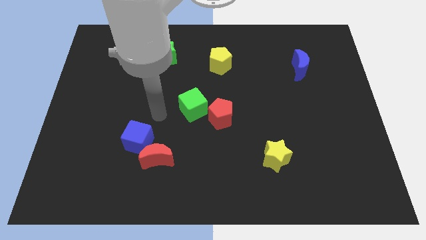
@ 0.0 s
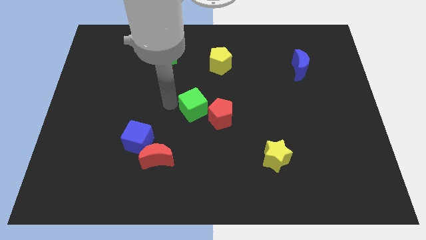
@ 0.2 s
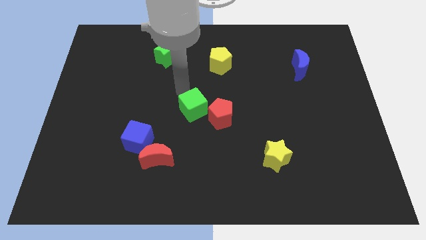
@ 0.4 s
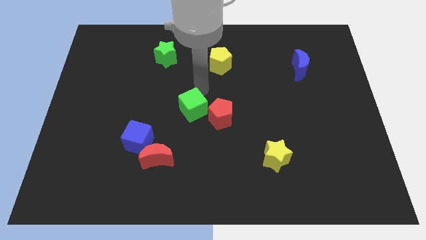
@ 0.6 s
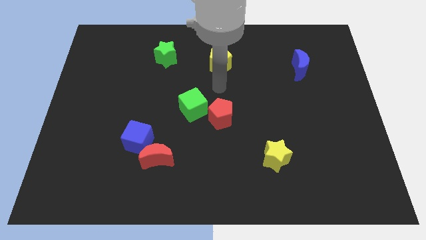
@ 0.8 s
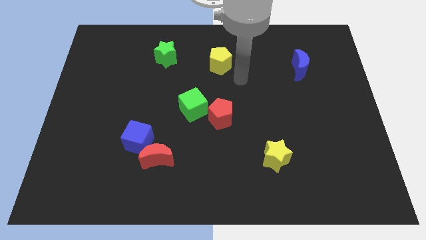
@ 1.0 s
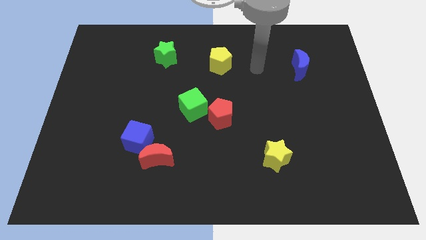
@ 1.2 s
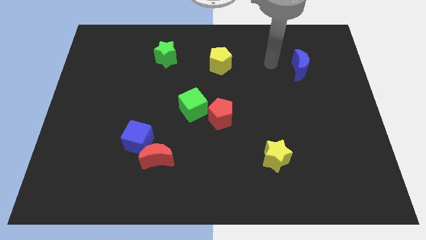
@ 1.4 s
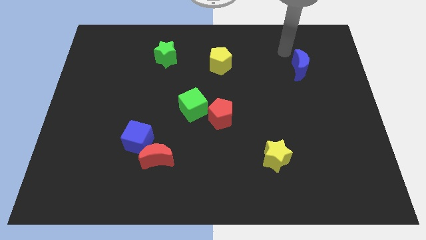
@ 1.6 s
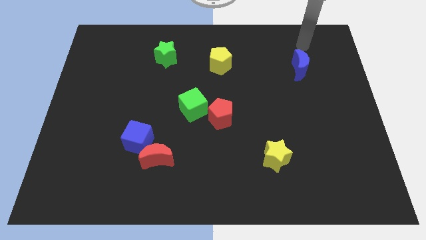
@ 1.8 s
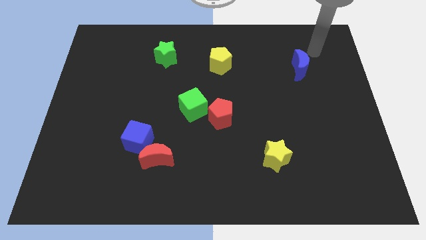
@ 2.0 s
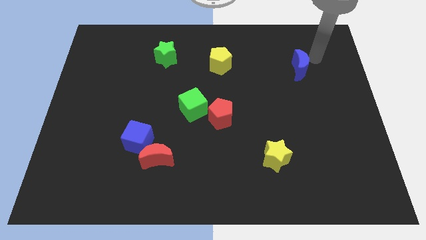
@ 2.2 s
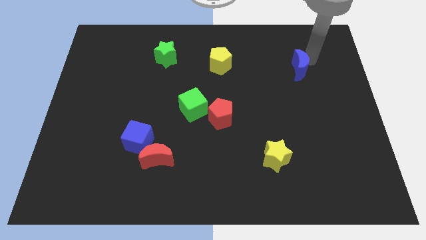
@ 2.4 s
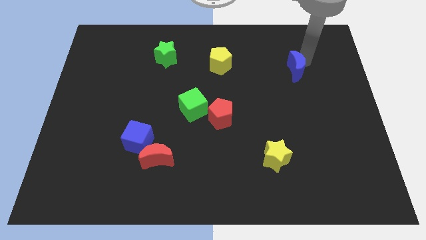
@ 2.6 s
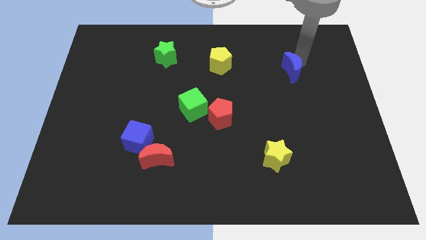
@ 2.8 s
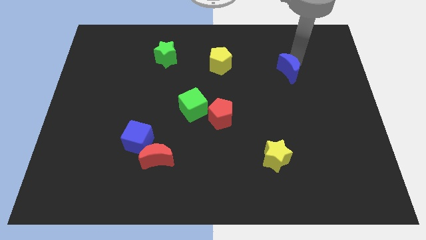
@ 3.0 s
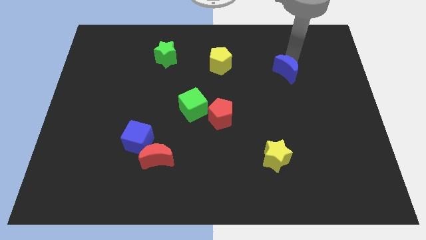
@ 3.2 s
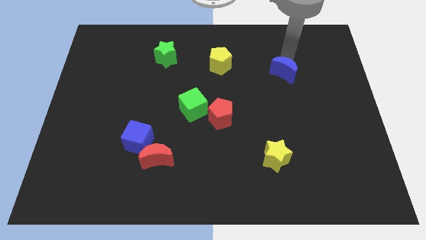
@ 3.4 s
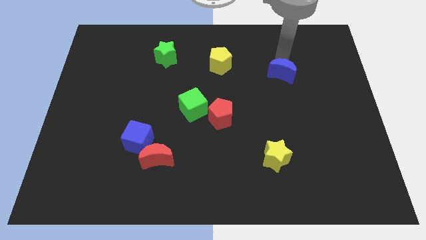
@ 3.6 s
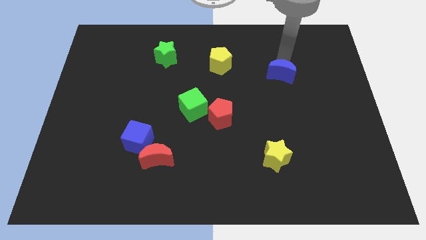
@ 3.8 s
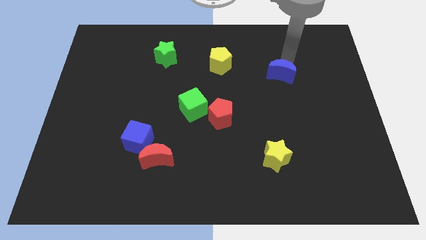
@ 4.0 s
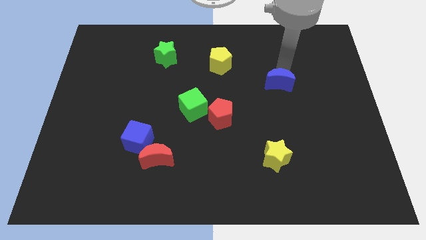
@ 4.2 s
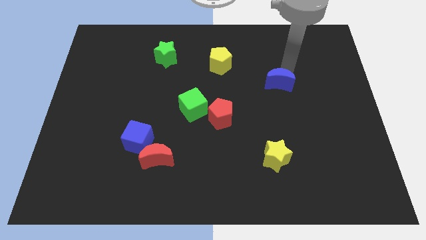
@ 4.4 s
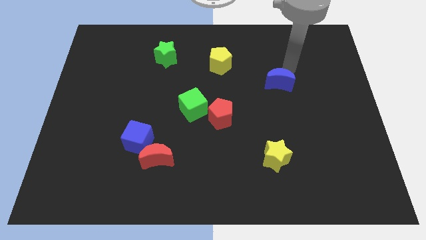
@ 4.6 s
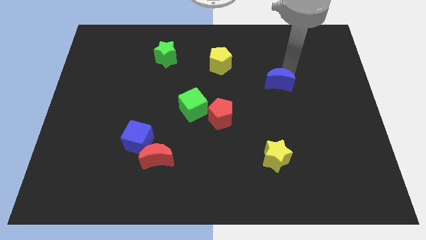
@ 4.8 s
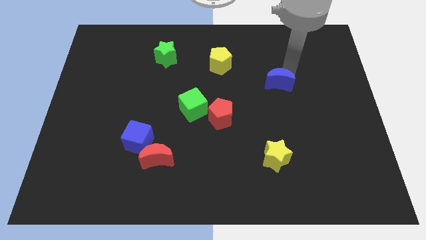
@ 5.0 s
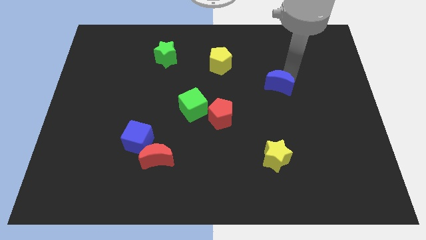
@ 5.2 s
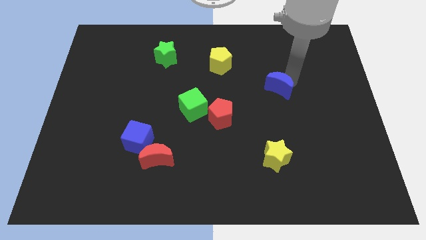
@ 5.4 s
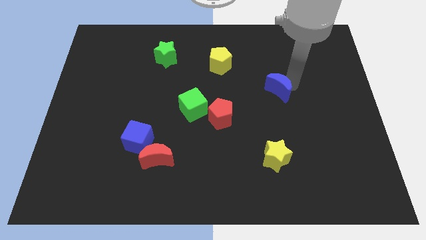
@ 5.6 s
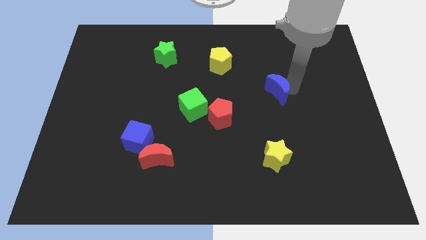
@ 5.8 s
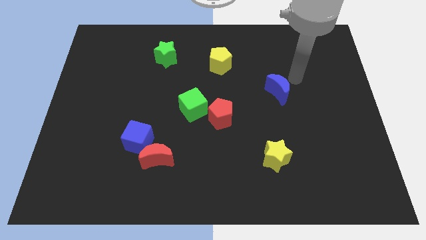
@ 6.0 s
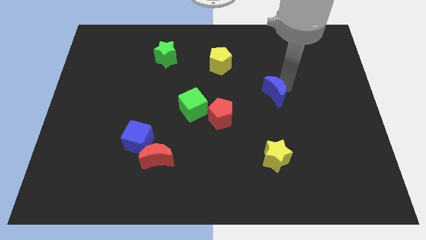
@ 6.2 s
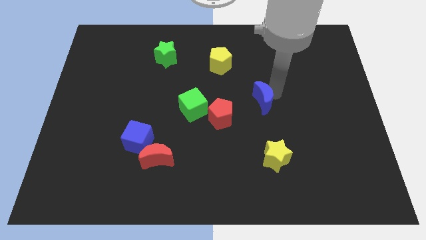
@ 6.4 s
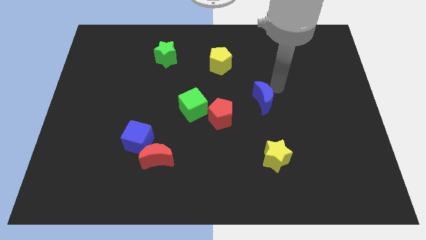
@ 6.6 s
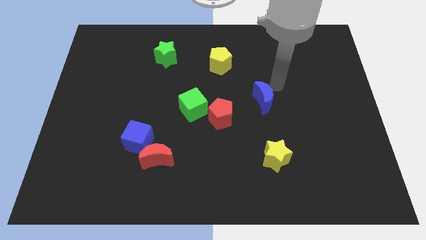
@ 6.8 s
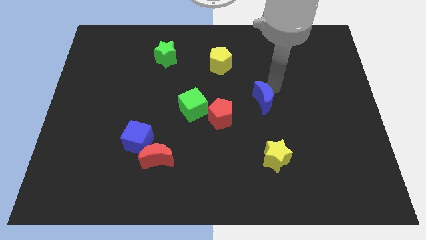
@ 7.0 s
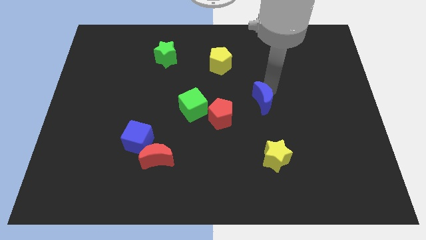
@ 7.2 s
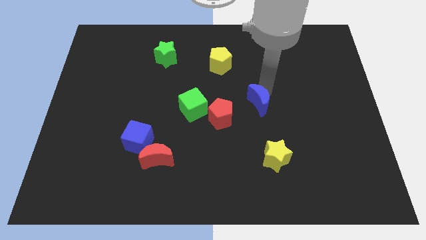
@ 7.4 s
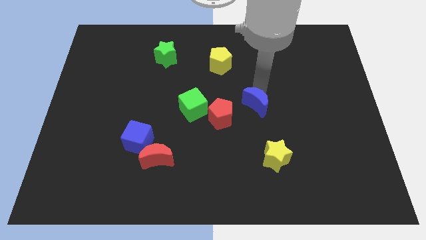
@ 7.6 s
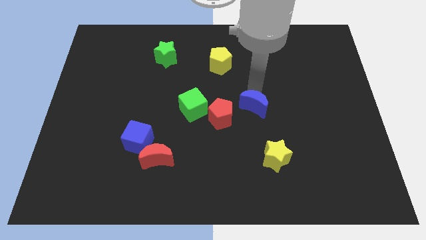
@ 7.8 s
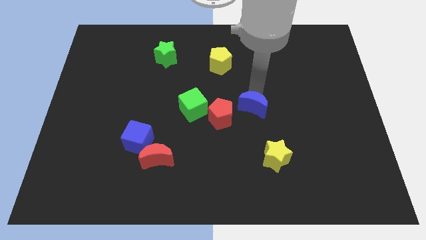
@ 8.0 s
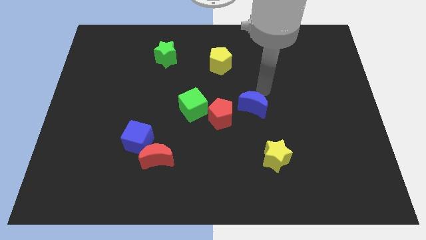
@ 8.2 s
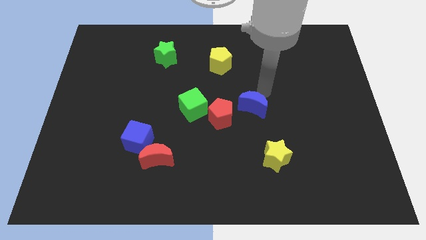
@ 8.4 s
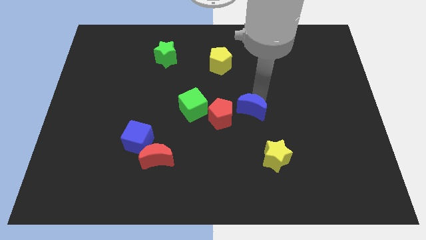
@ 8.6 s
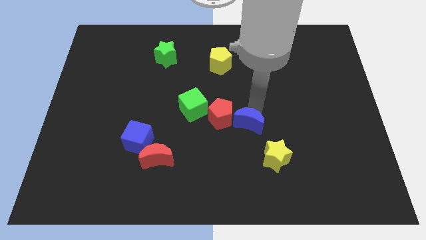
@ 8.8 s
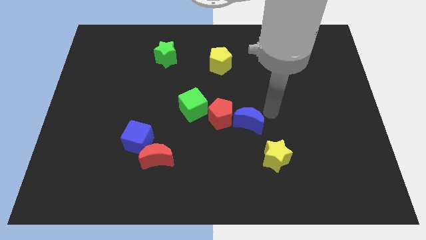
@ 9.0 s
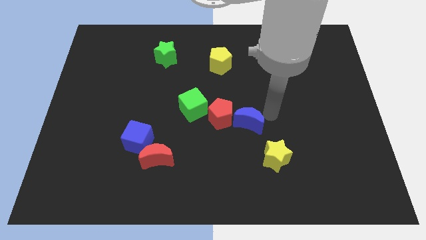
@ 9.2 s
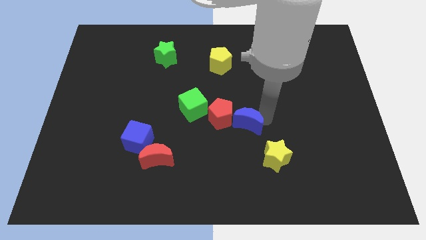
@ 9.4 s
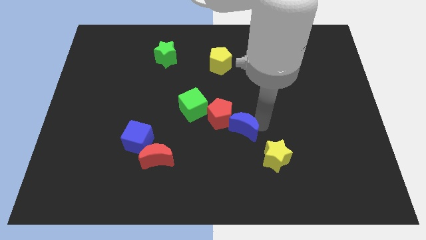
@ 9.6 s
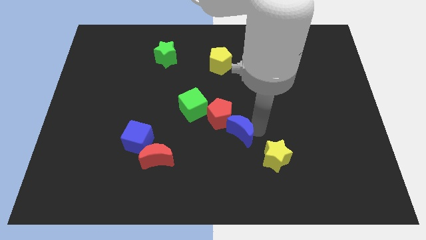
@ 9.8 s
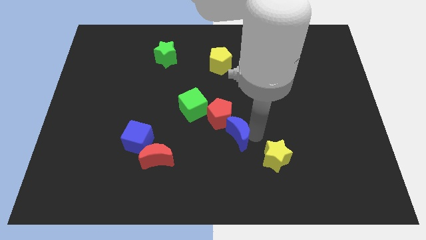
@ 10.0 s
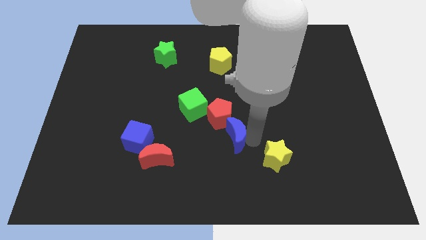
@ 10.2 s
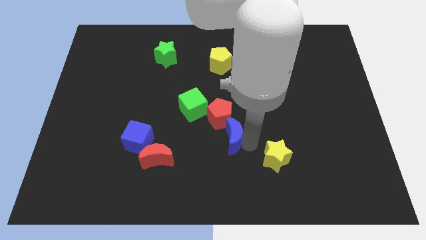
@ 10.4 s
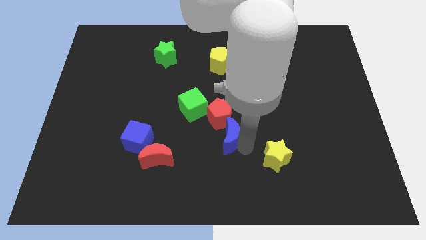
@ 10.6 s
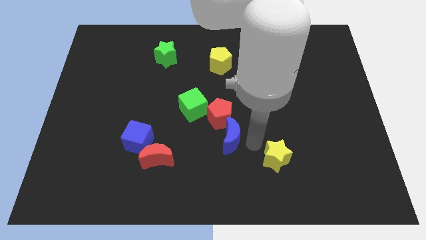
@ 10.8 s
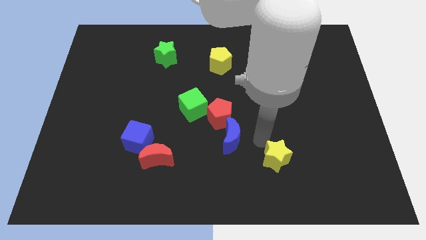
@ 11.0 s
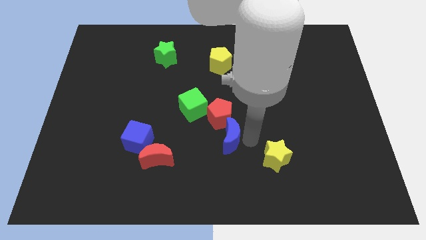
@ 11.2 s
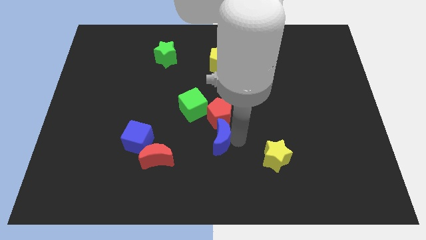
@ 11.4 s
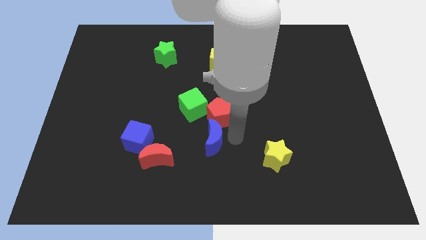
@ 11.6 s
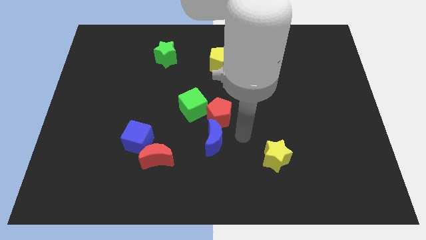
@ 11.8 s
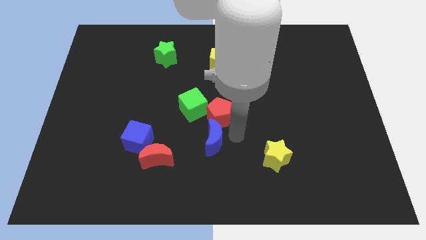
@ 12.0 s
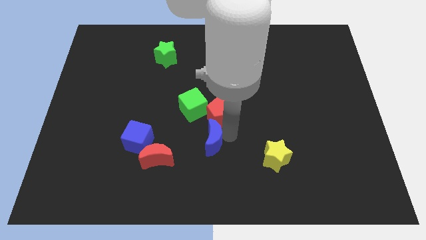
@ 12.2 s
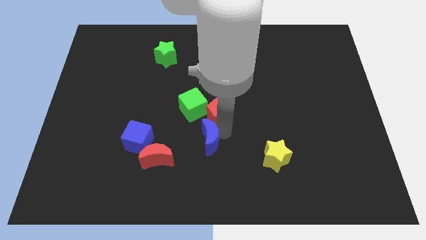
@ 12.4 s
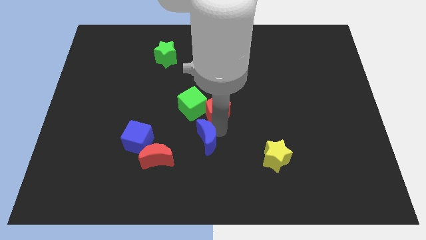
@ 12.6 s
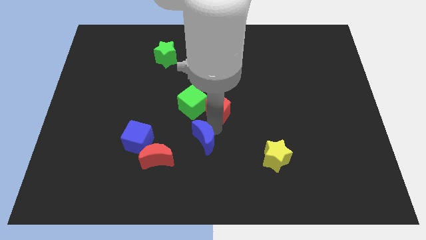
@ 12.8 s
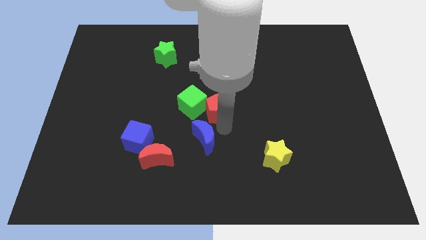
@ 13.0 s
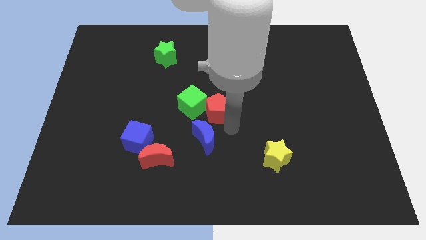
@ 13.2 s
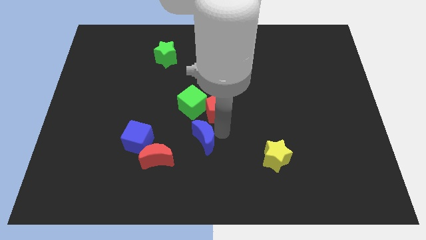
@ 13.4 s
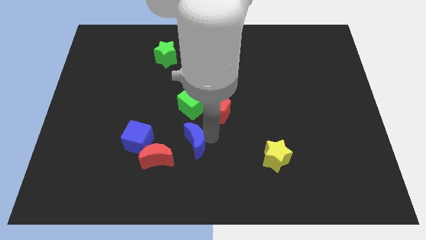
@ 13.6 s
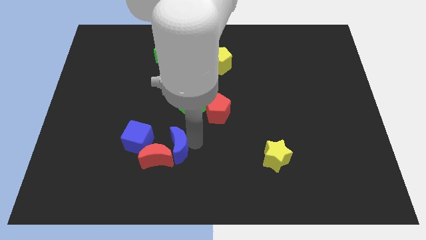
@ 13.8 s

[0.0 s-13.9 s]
push the blue moon to the red moon

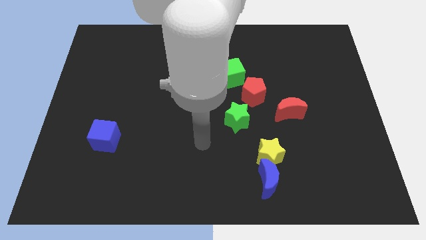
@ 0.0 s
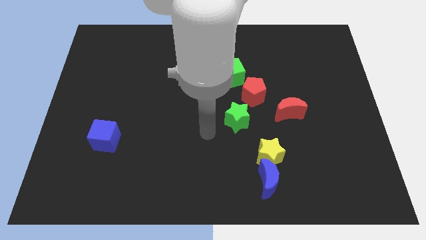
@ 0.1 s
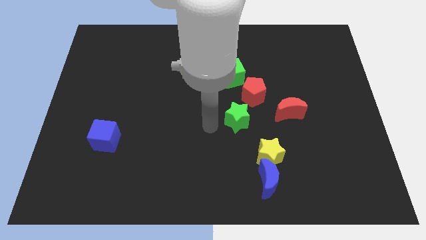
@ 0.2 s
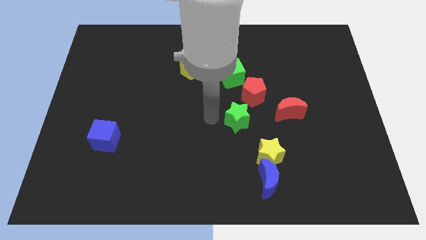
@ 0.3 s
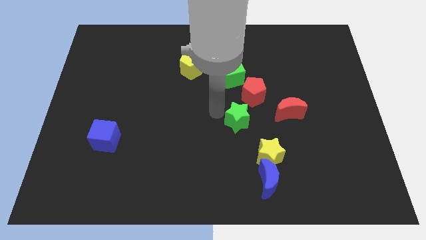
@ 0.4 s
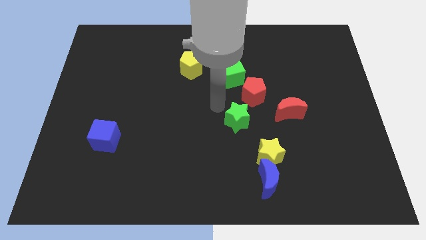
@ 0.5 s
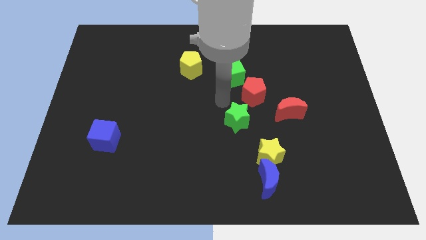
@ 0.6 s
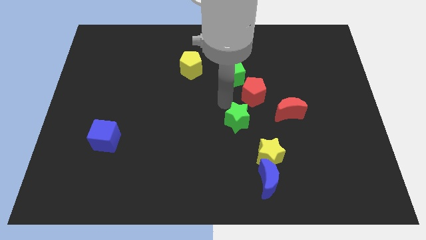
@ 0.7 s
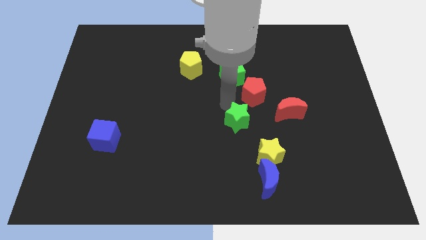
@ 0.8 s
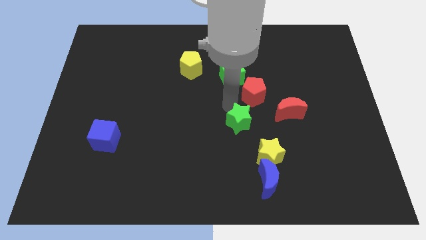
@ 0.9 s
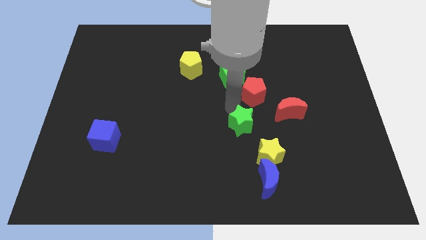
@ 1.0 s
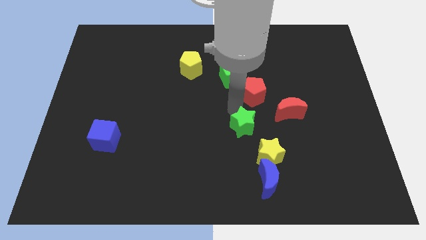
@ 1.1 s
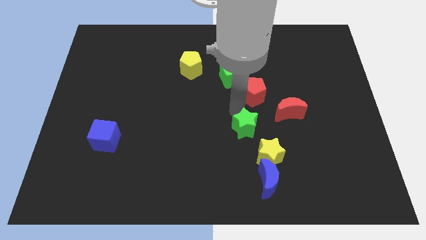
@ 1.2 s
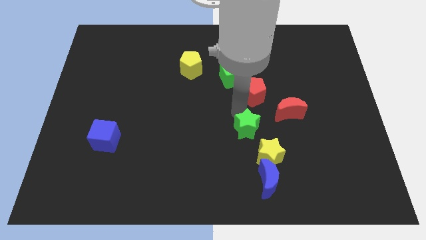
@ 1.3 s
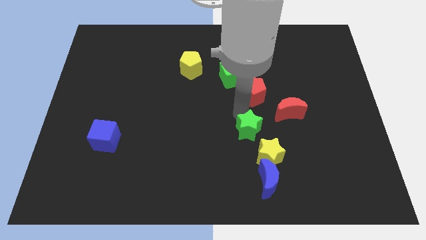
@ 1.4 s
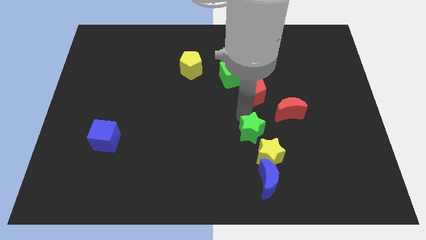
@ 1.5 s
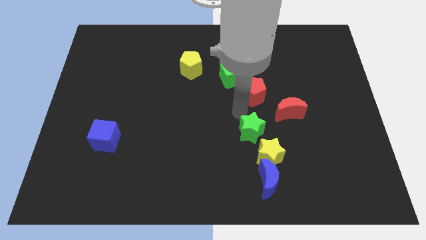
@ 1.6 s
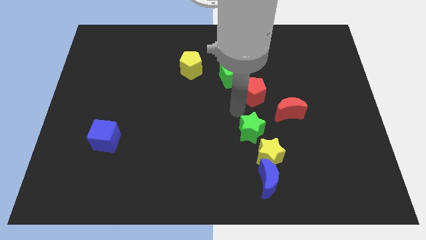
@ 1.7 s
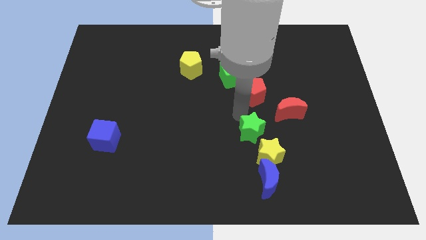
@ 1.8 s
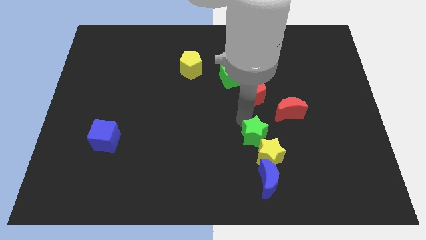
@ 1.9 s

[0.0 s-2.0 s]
move the green star next to the yellow star
